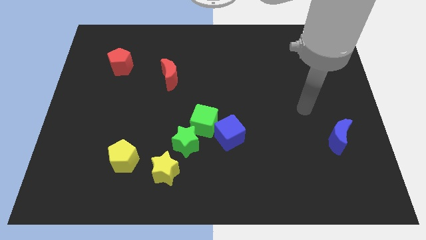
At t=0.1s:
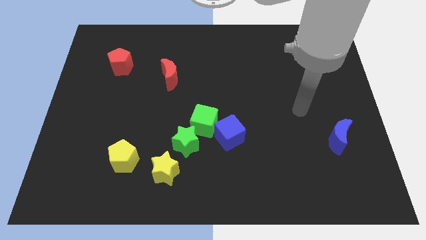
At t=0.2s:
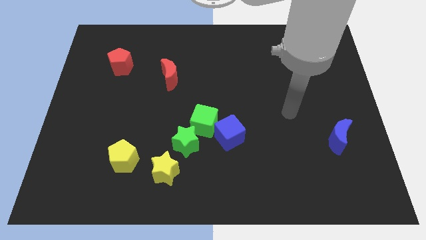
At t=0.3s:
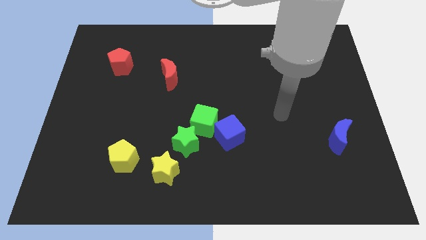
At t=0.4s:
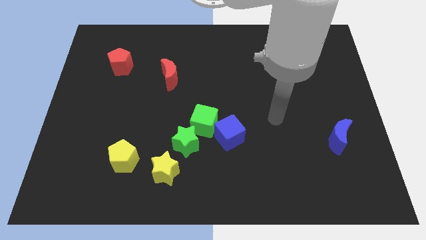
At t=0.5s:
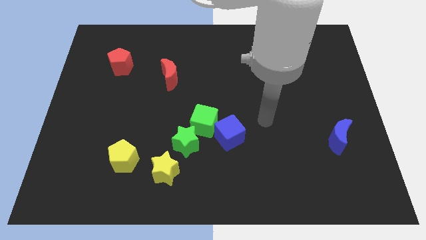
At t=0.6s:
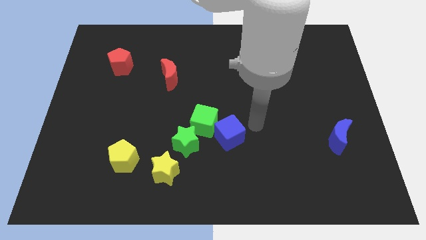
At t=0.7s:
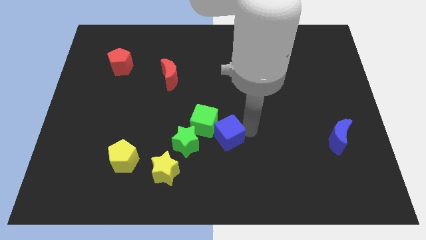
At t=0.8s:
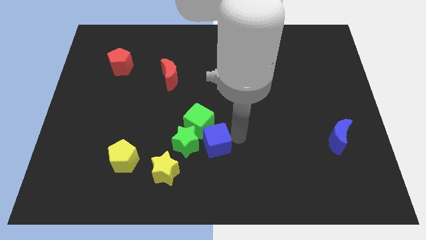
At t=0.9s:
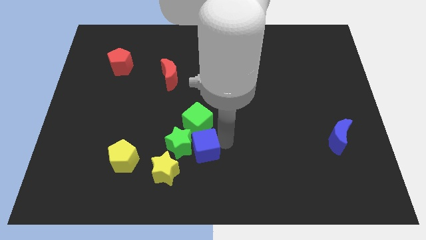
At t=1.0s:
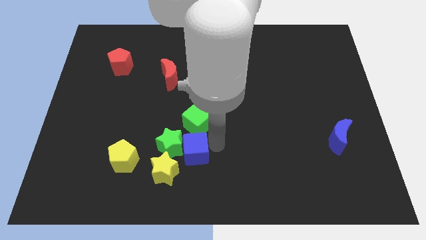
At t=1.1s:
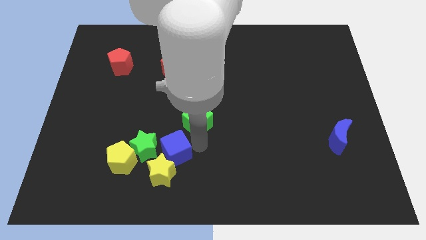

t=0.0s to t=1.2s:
move the green cube away from the blue cube and green star

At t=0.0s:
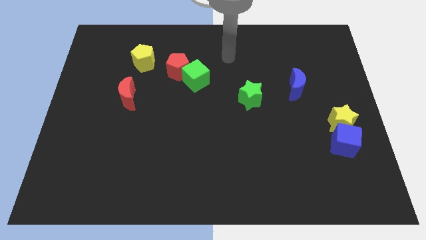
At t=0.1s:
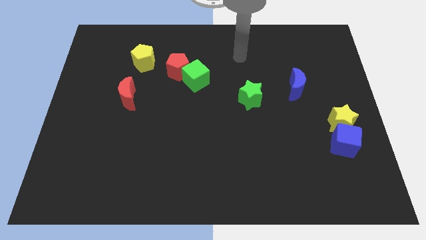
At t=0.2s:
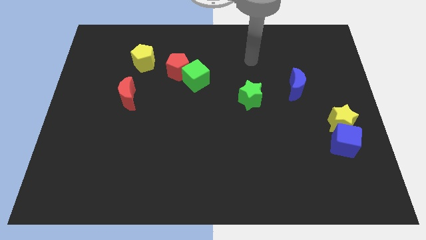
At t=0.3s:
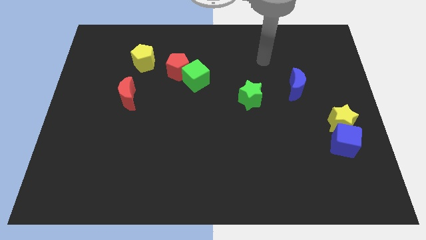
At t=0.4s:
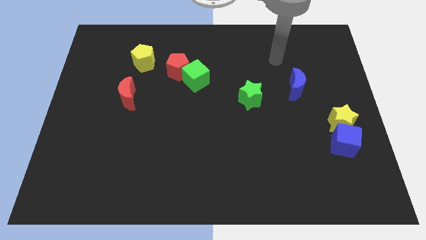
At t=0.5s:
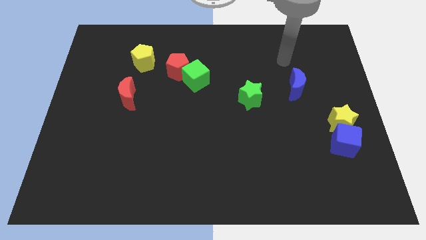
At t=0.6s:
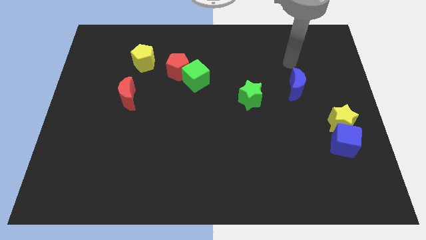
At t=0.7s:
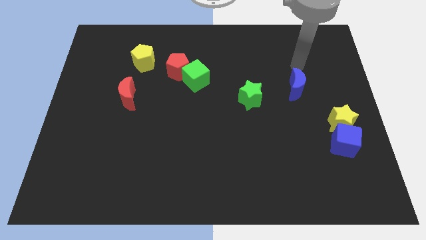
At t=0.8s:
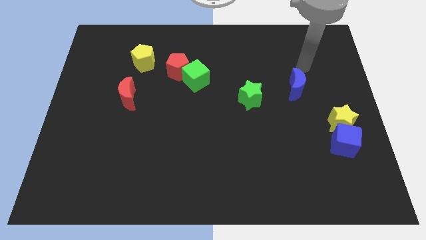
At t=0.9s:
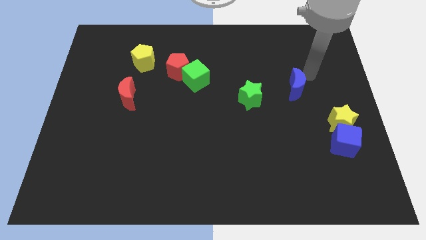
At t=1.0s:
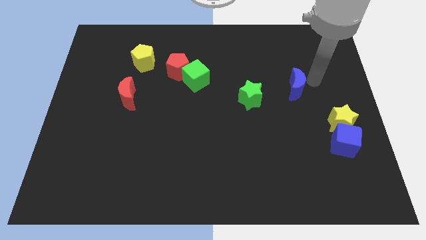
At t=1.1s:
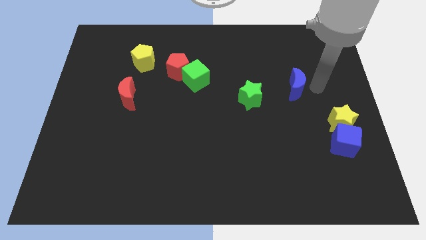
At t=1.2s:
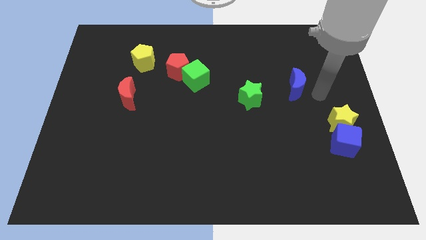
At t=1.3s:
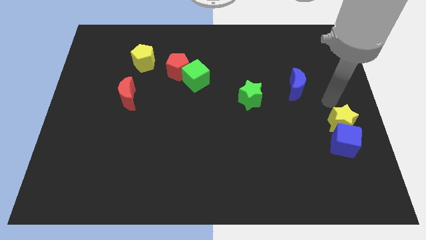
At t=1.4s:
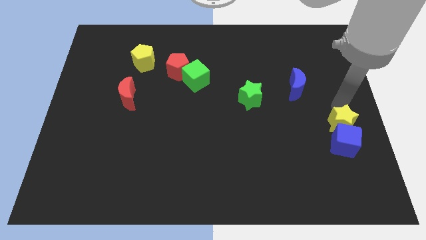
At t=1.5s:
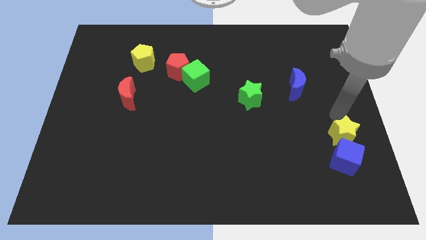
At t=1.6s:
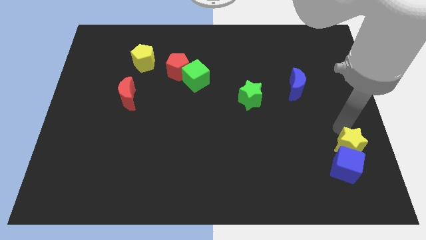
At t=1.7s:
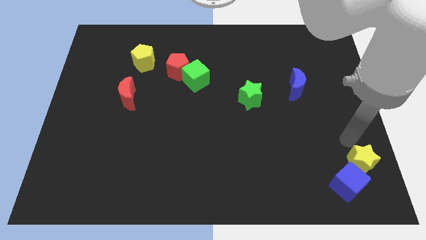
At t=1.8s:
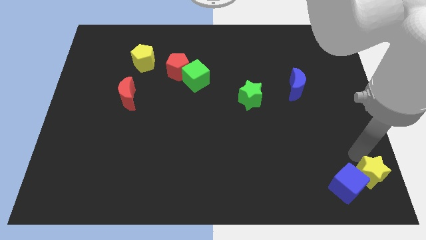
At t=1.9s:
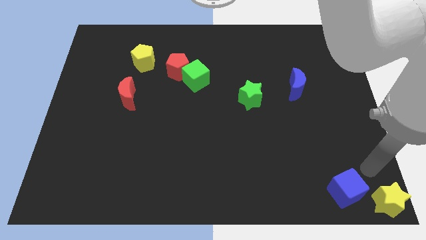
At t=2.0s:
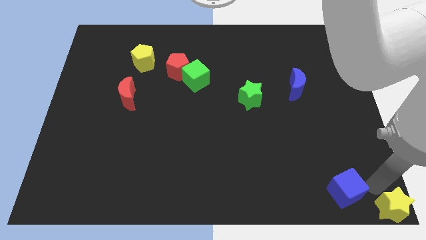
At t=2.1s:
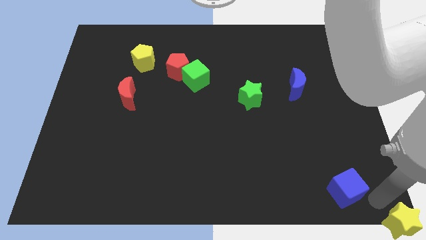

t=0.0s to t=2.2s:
pull the blue cube apart from the yellow star

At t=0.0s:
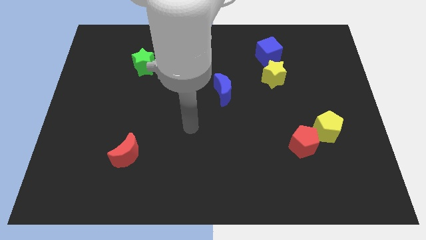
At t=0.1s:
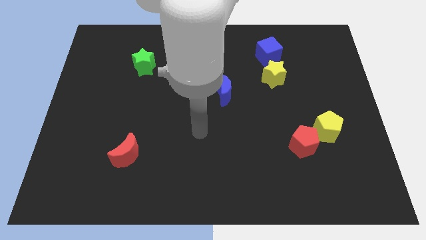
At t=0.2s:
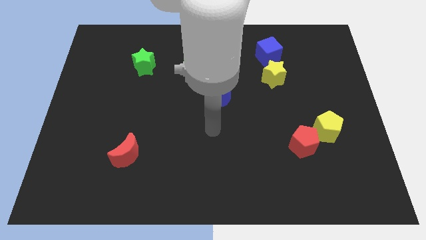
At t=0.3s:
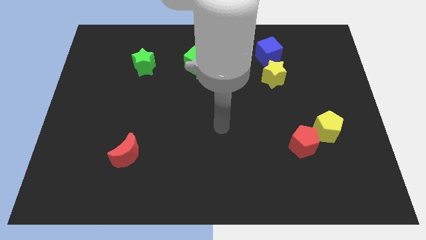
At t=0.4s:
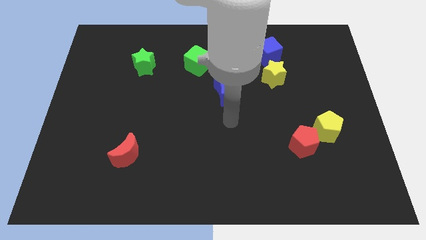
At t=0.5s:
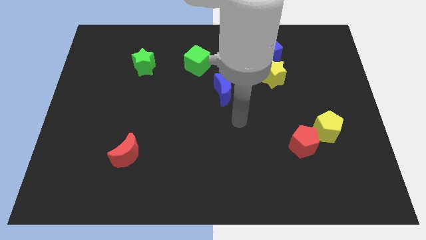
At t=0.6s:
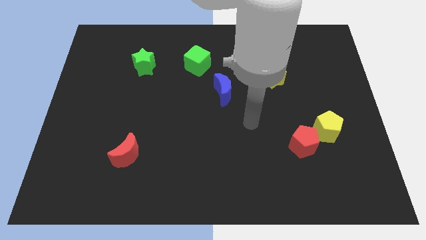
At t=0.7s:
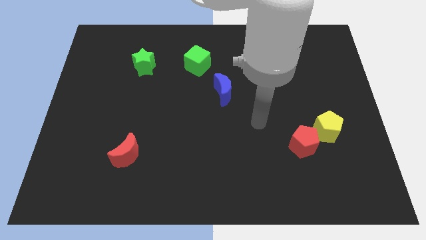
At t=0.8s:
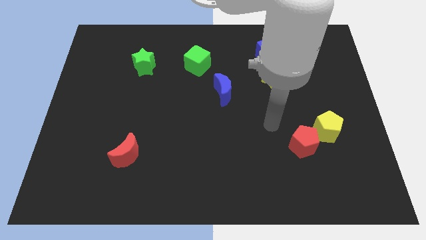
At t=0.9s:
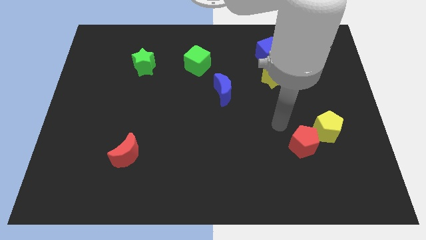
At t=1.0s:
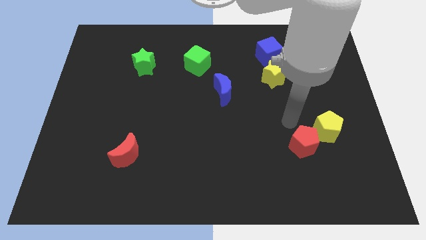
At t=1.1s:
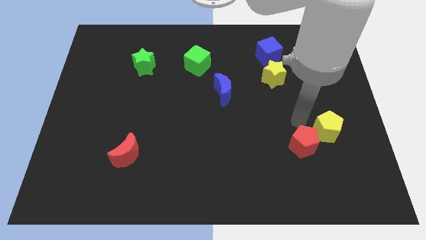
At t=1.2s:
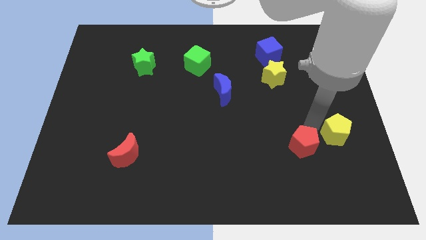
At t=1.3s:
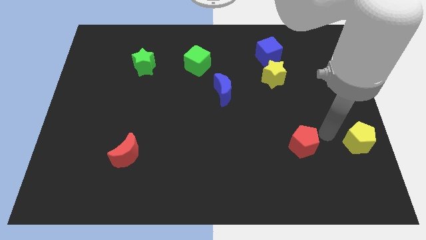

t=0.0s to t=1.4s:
pull the red pentagon apart from the yellow pentagon

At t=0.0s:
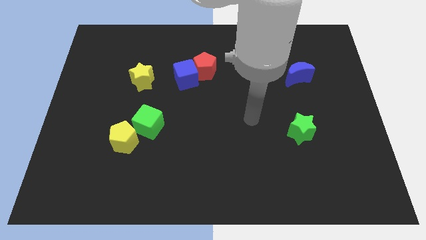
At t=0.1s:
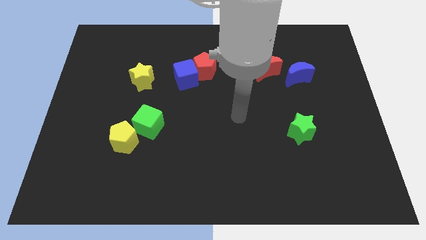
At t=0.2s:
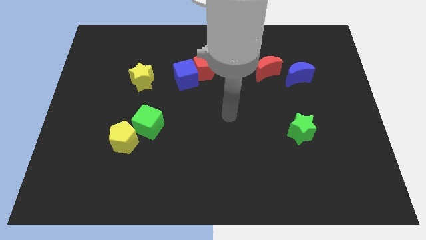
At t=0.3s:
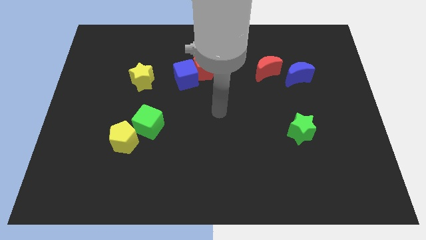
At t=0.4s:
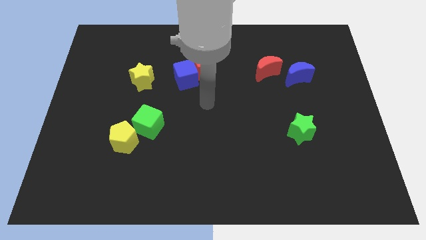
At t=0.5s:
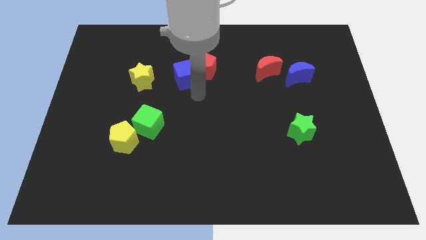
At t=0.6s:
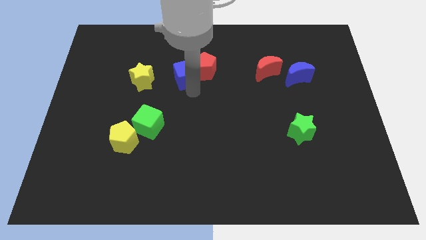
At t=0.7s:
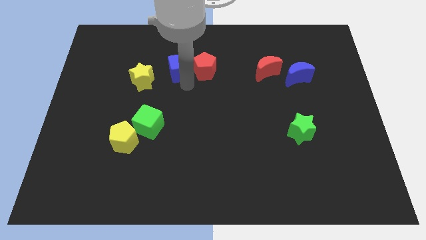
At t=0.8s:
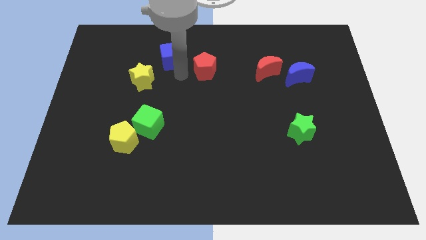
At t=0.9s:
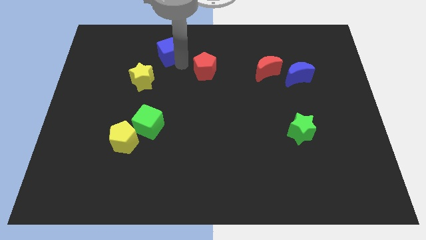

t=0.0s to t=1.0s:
pull the red pentagon apart from the blue cube

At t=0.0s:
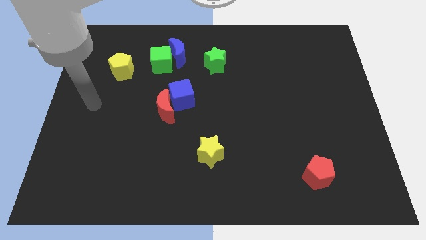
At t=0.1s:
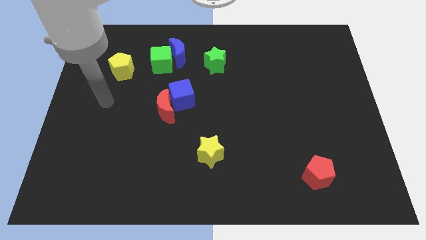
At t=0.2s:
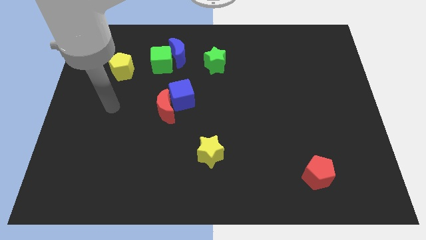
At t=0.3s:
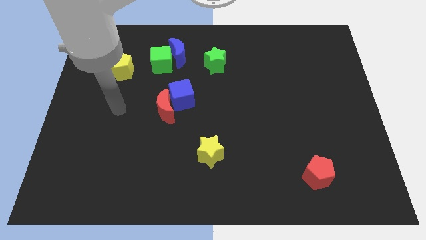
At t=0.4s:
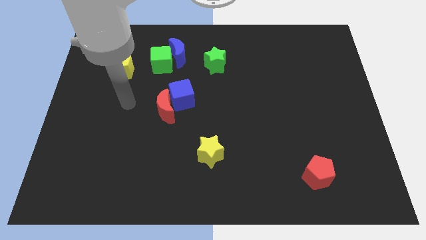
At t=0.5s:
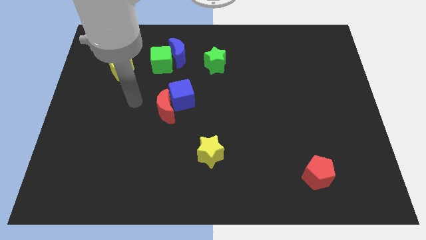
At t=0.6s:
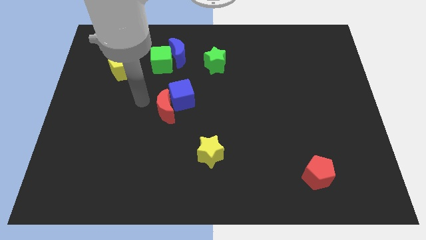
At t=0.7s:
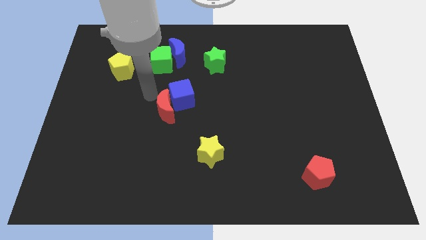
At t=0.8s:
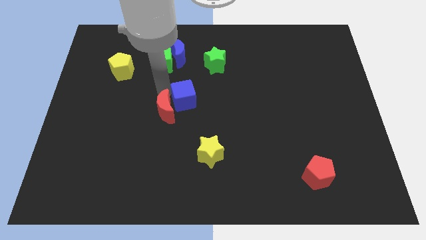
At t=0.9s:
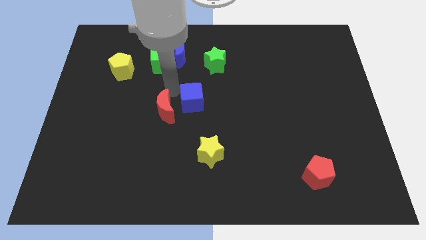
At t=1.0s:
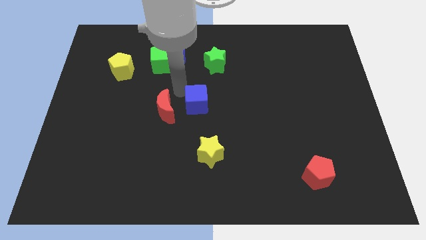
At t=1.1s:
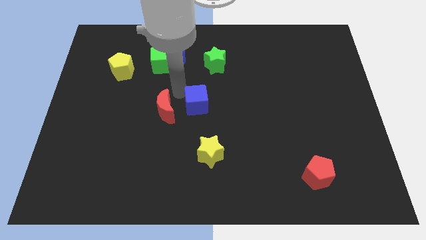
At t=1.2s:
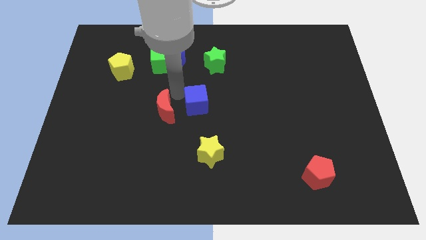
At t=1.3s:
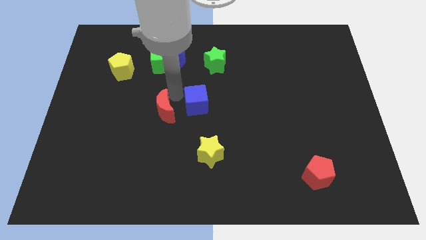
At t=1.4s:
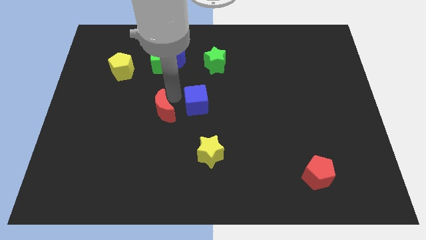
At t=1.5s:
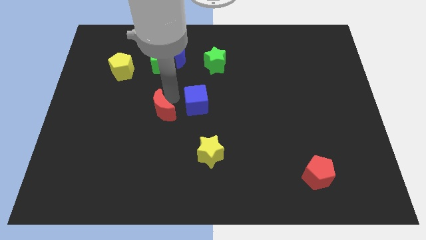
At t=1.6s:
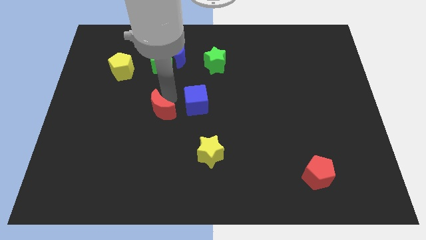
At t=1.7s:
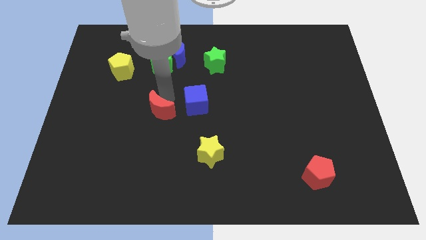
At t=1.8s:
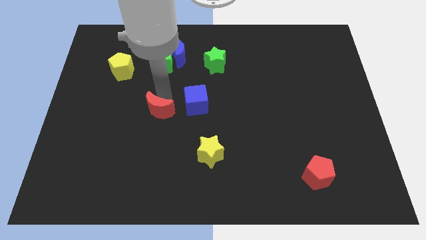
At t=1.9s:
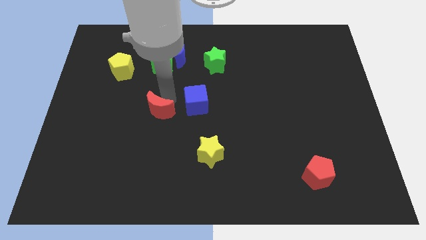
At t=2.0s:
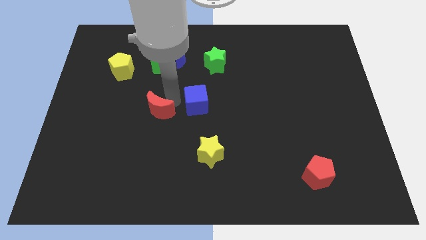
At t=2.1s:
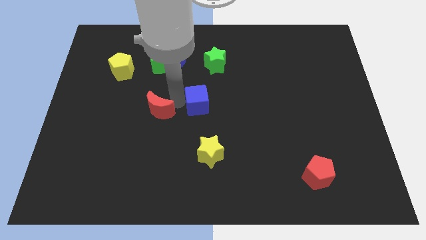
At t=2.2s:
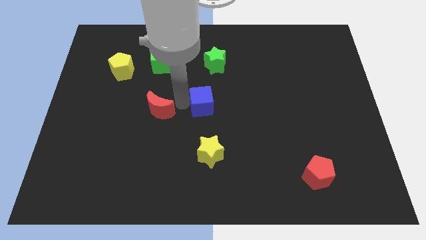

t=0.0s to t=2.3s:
pull the red moon apart from the blue cube

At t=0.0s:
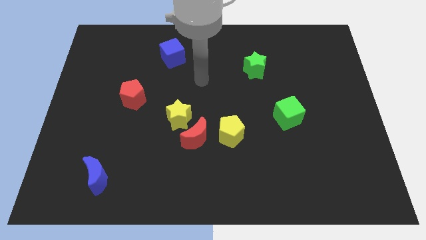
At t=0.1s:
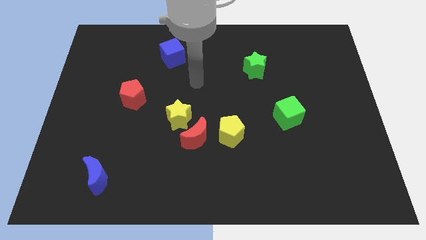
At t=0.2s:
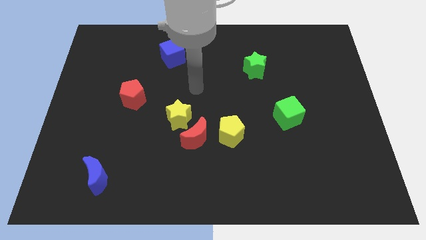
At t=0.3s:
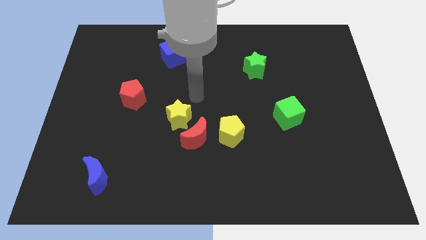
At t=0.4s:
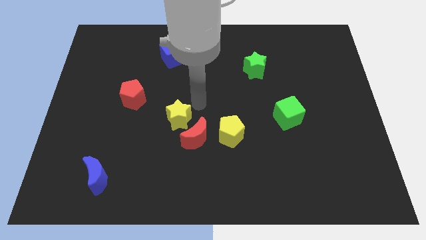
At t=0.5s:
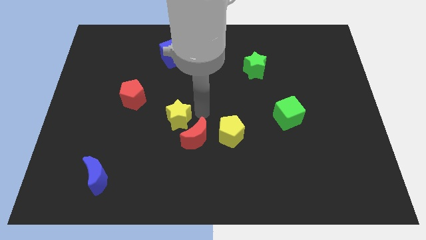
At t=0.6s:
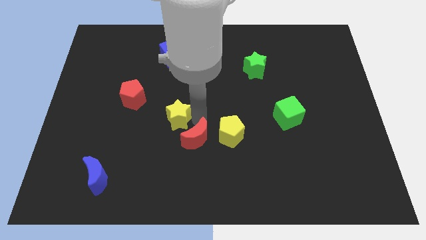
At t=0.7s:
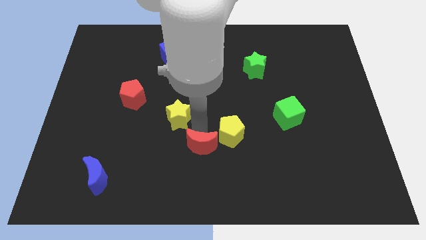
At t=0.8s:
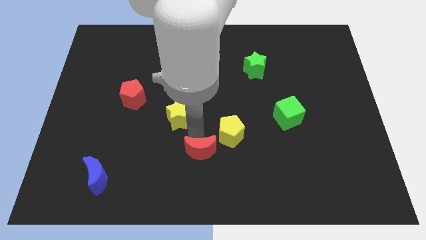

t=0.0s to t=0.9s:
pull the yellow star apart from the red moon
